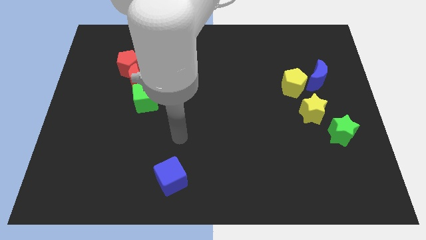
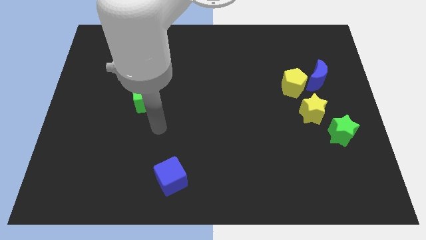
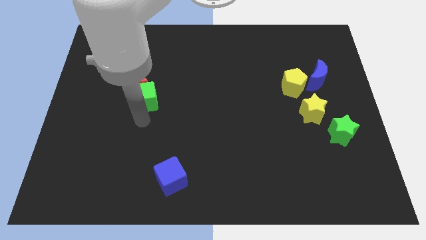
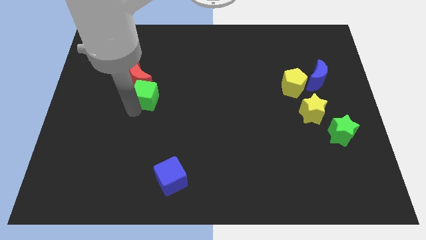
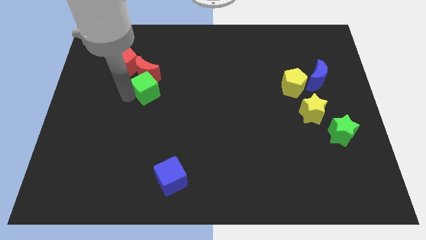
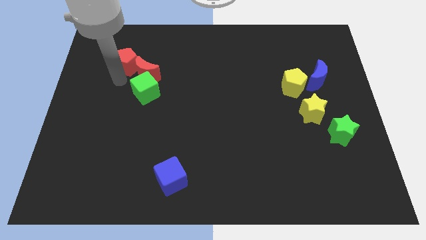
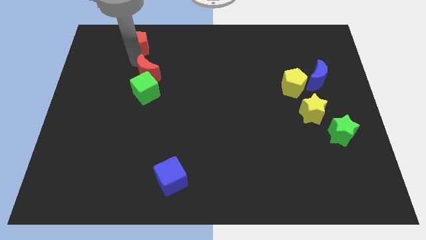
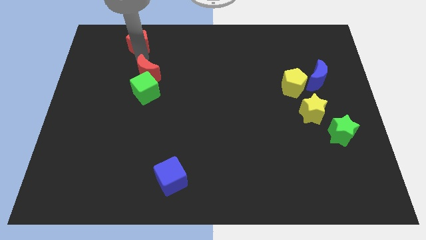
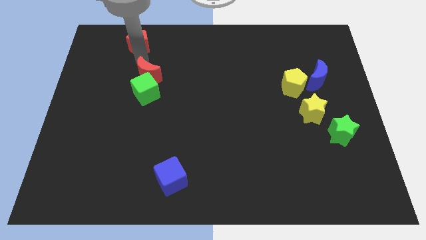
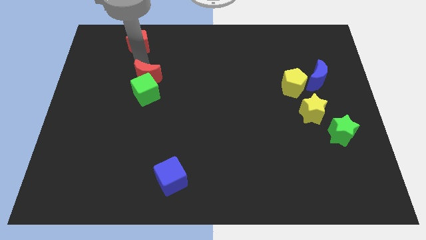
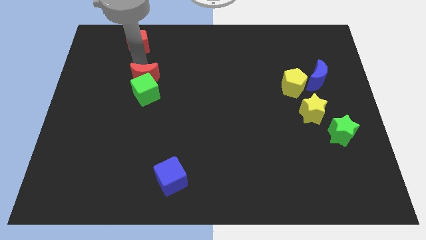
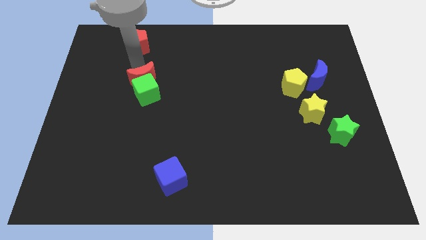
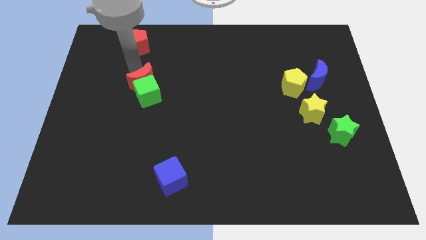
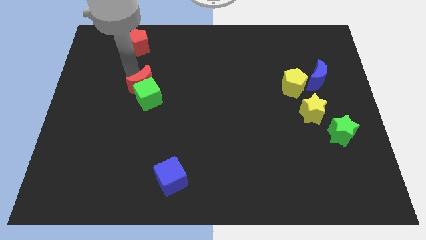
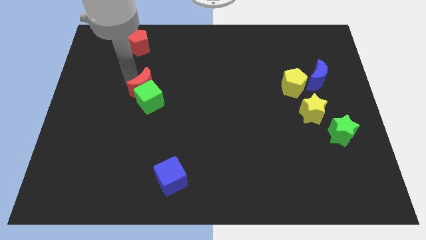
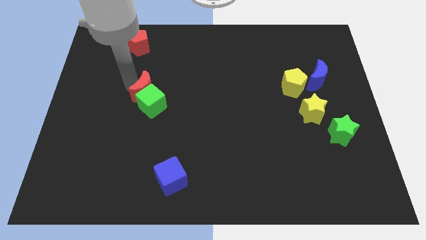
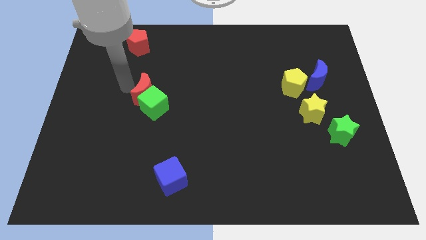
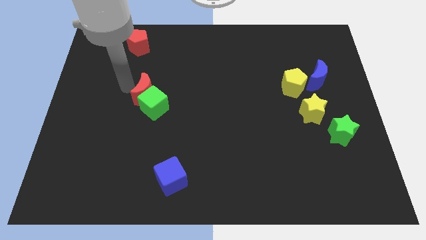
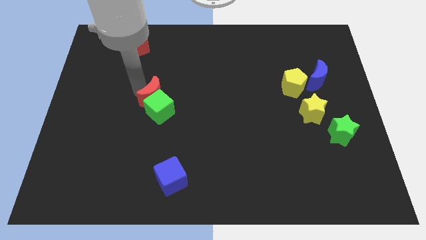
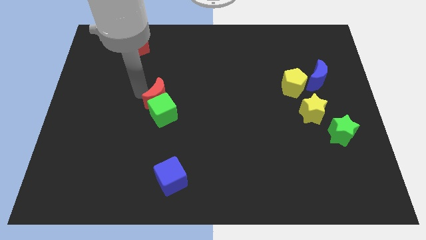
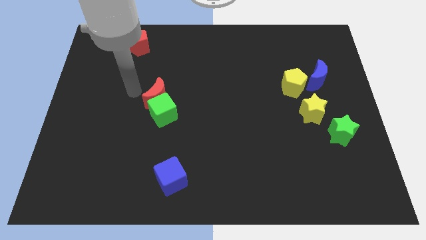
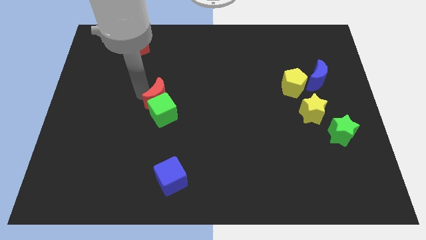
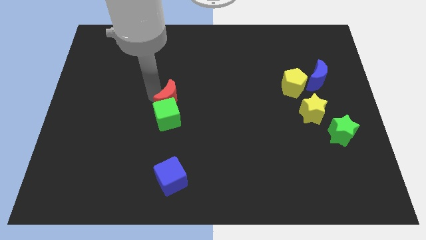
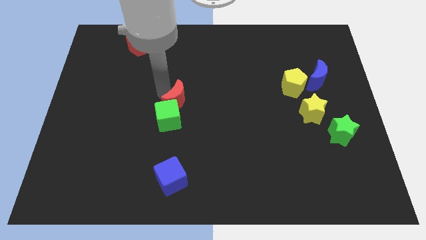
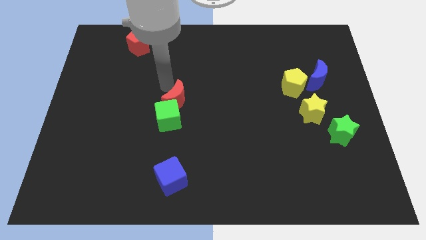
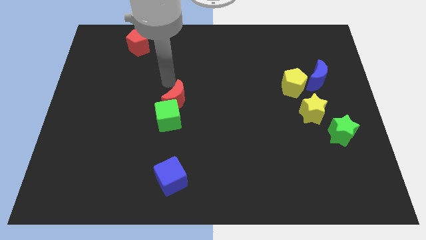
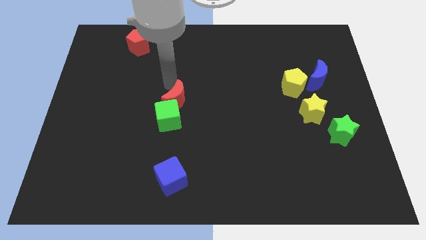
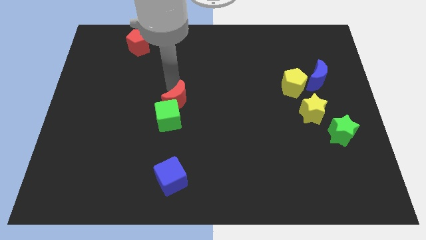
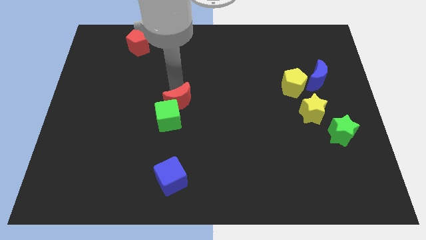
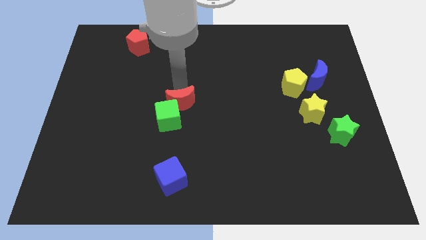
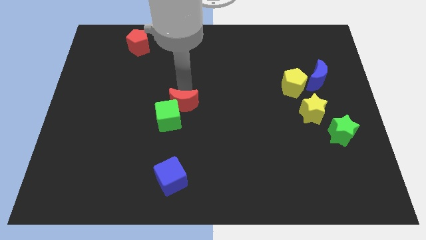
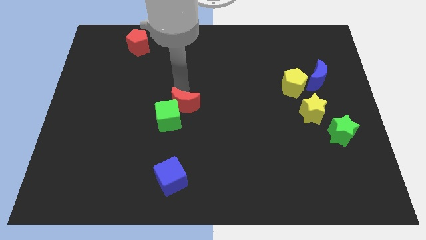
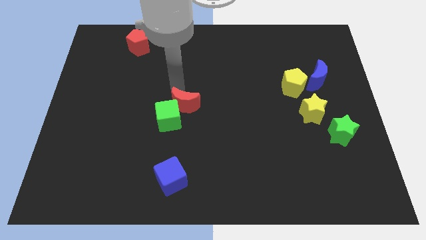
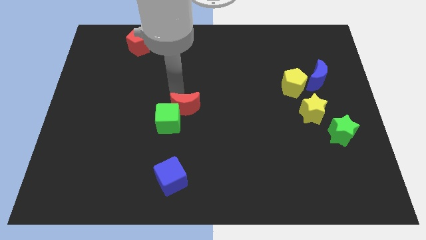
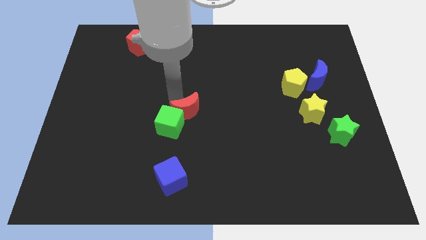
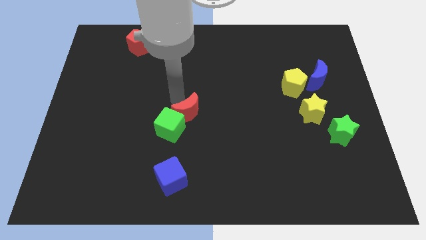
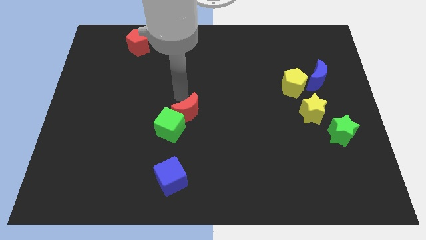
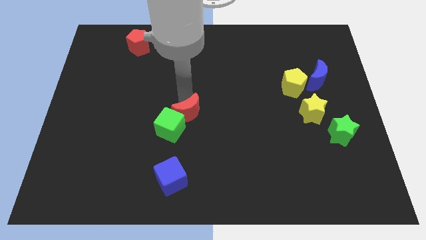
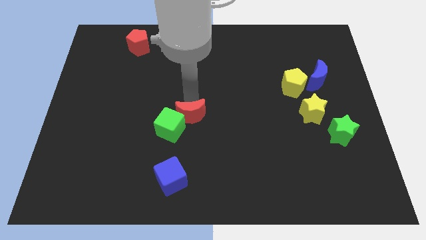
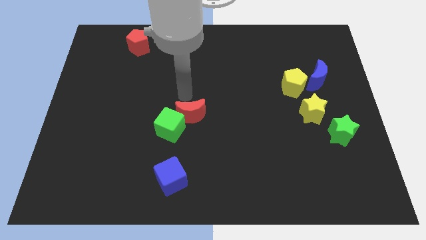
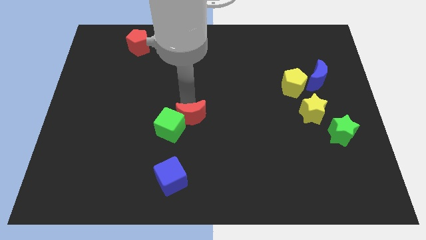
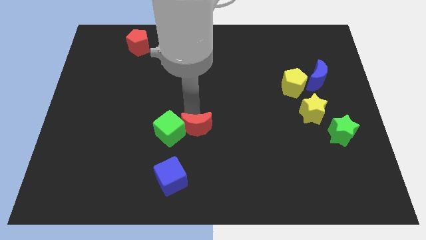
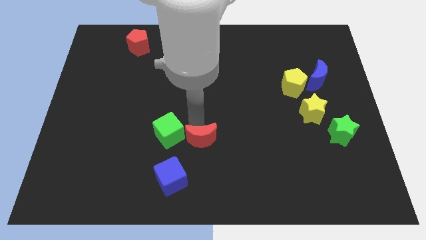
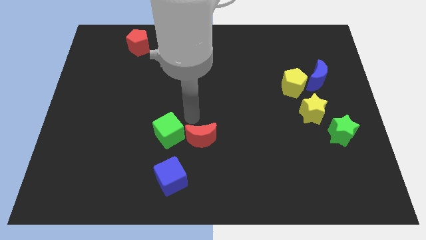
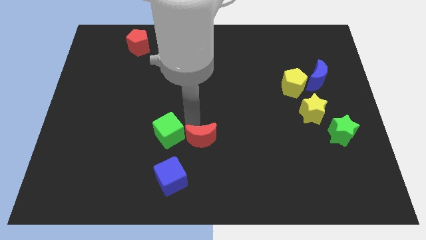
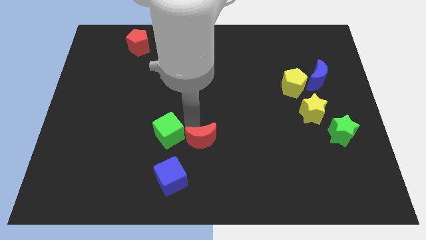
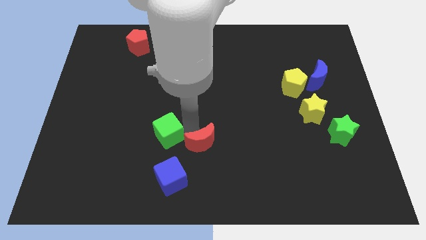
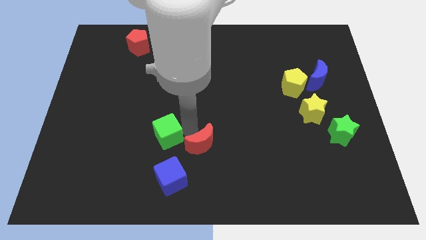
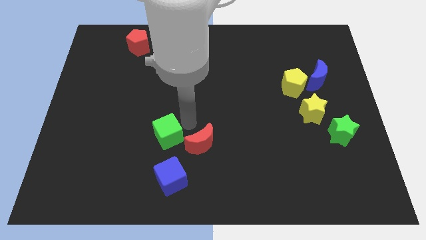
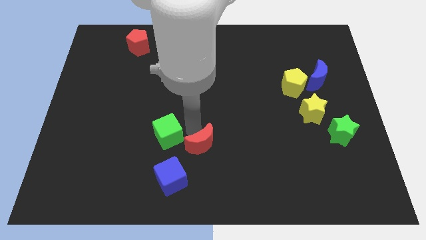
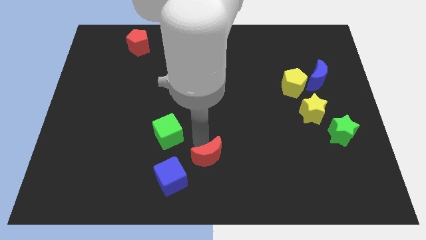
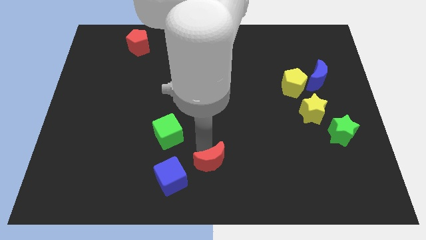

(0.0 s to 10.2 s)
move the red moon to the right side of the blue cube

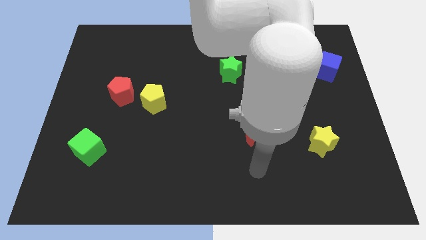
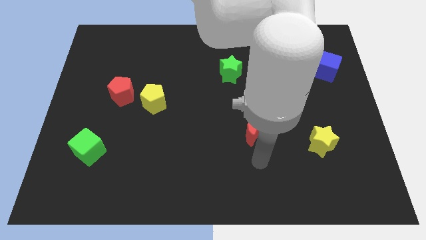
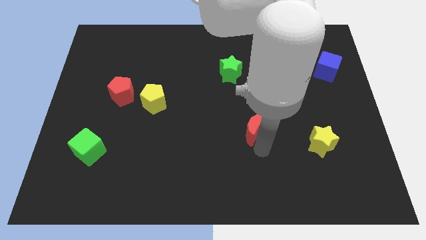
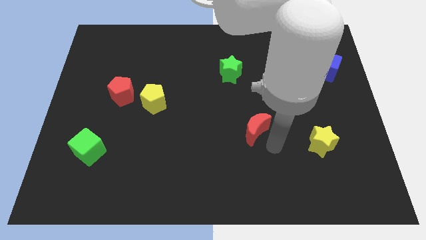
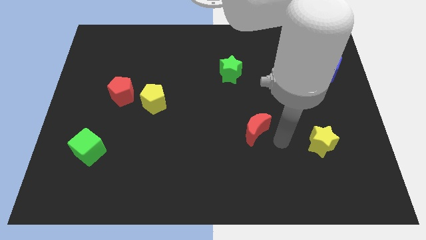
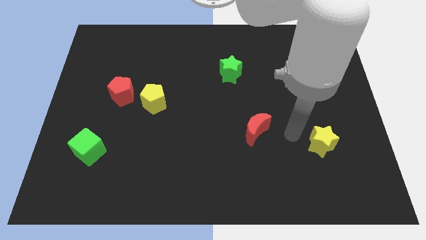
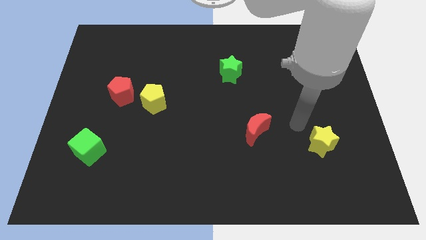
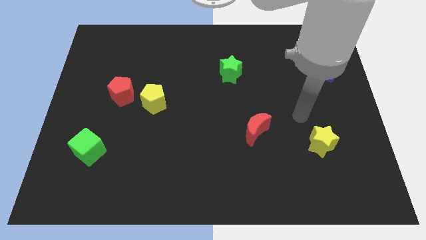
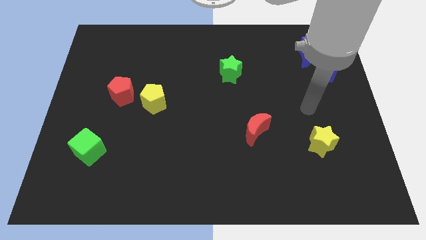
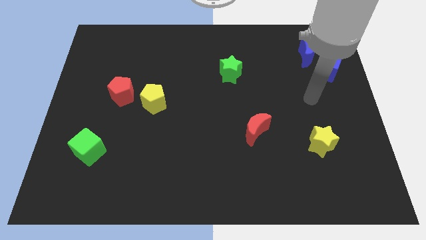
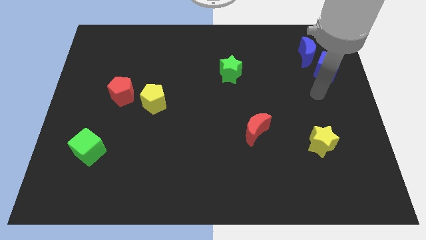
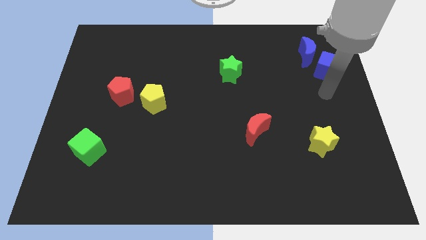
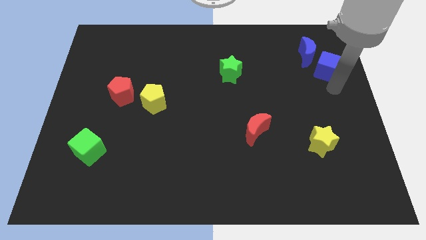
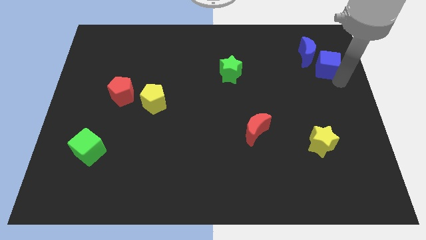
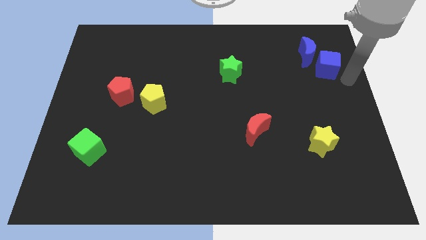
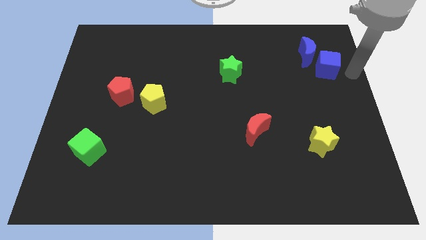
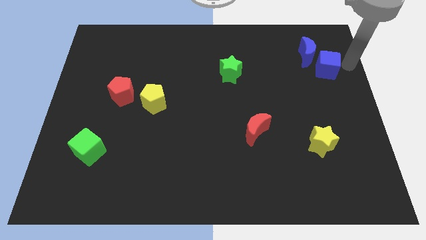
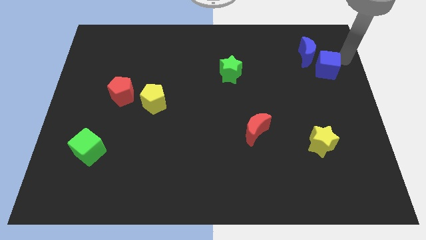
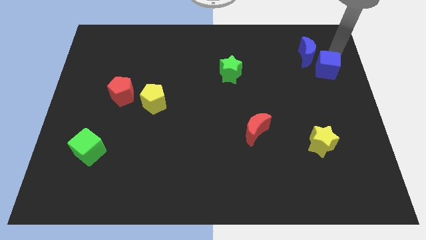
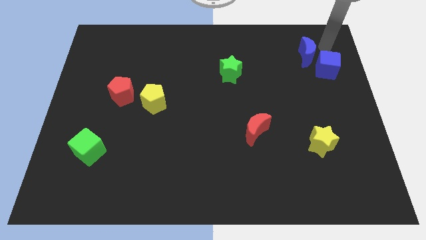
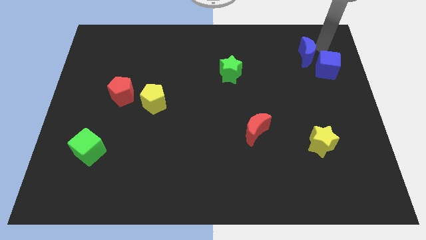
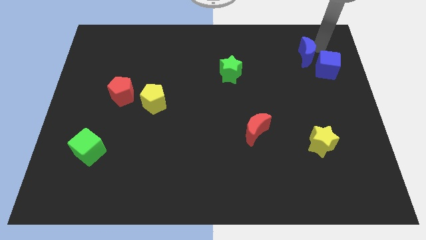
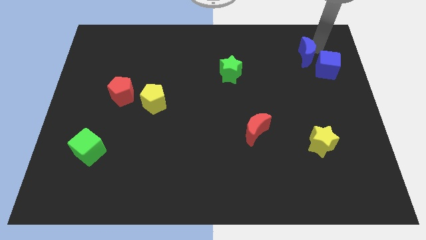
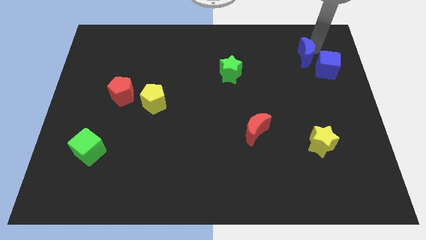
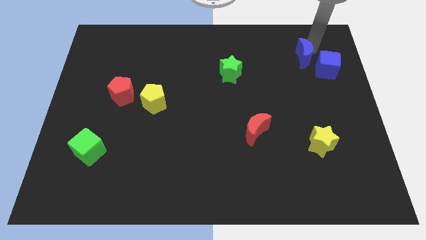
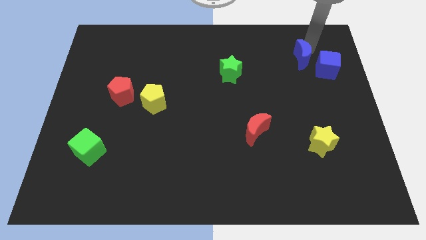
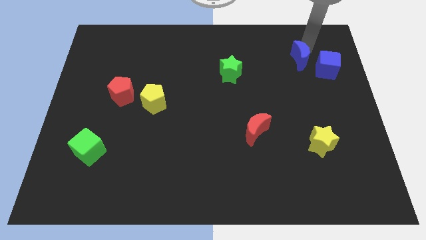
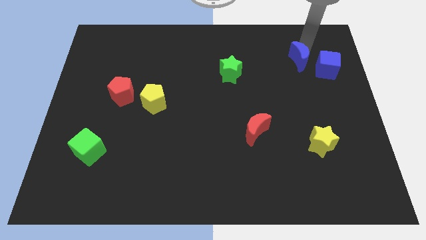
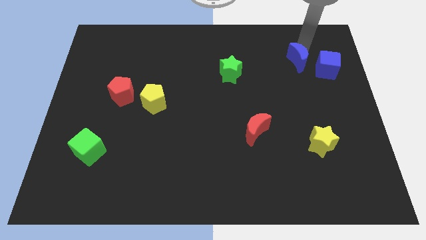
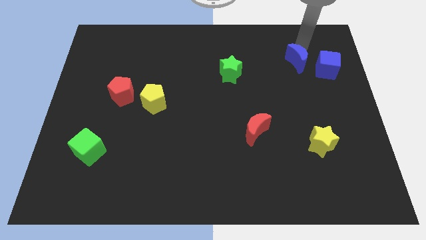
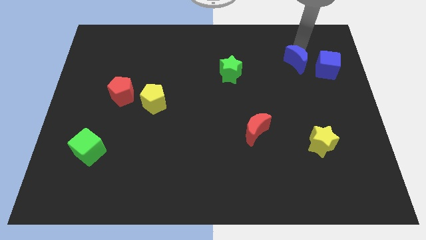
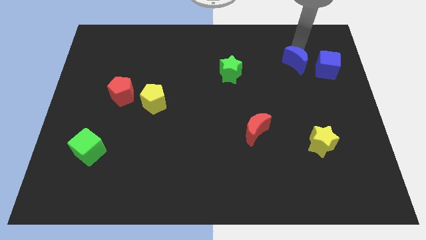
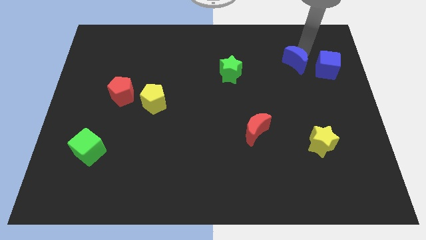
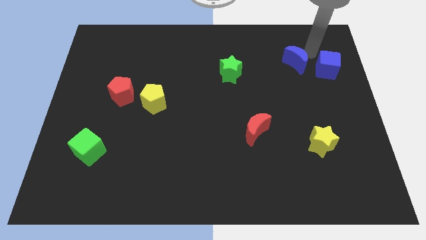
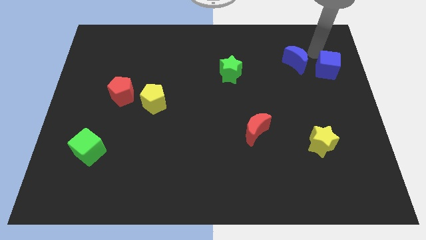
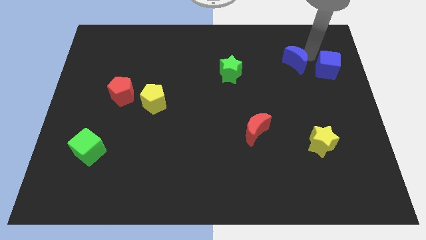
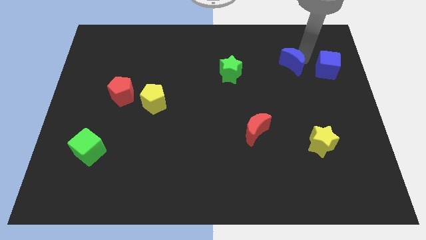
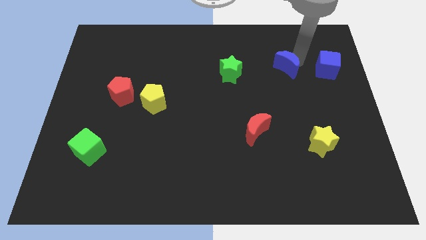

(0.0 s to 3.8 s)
push the blue moon to the right side of the green star
